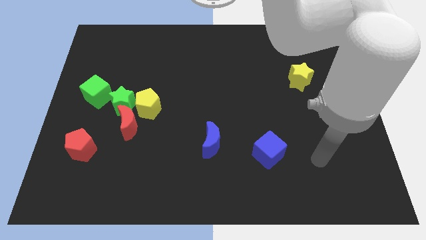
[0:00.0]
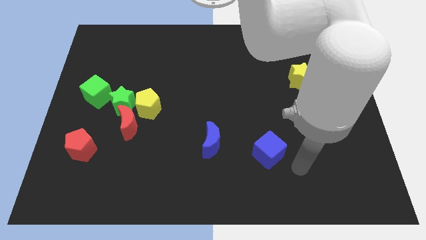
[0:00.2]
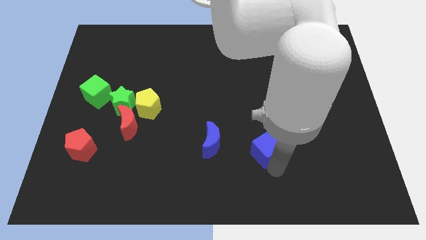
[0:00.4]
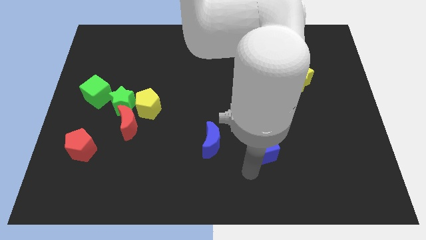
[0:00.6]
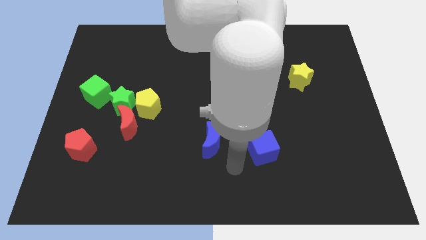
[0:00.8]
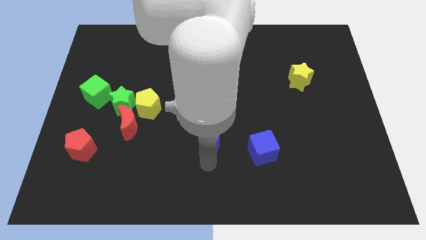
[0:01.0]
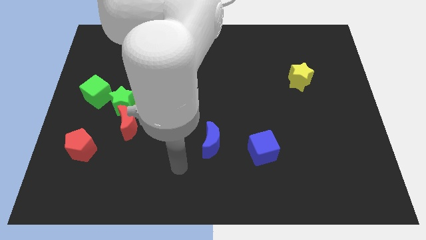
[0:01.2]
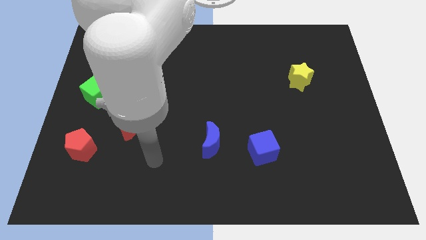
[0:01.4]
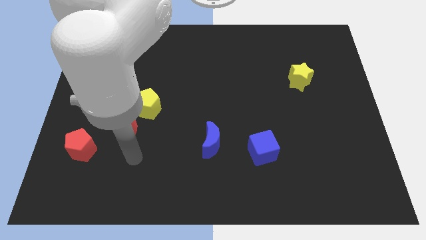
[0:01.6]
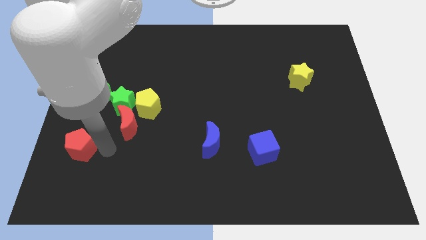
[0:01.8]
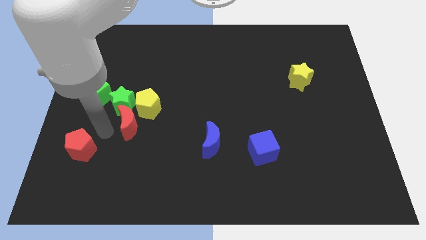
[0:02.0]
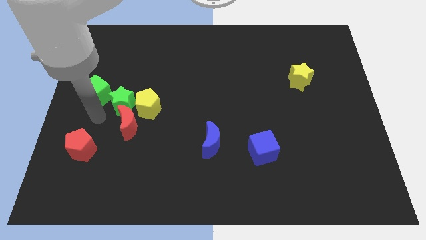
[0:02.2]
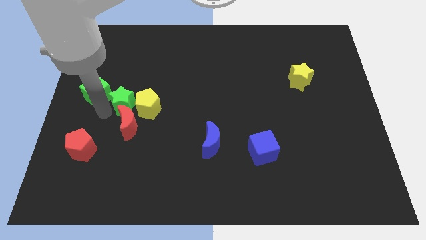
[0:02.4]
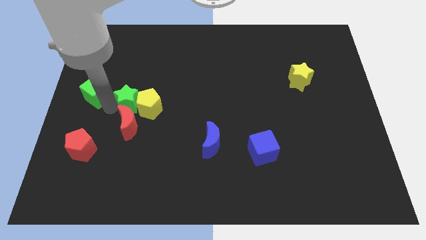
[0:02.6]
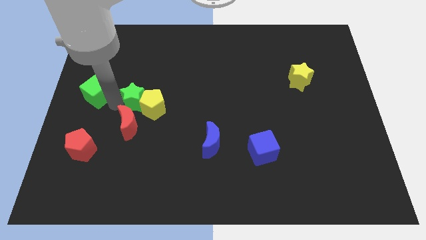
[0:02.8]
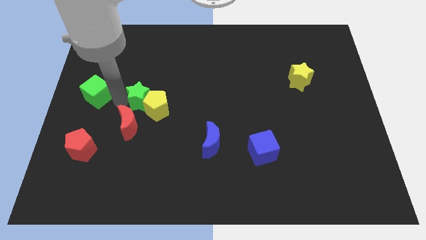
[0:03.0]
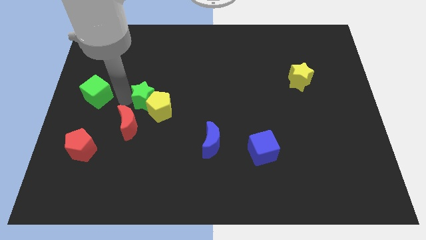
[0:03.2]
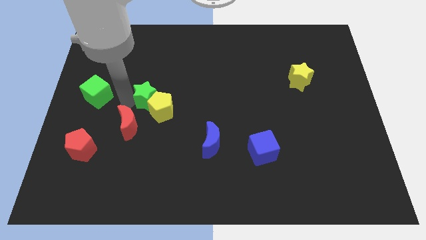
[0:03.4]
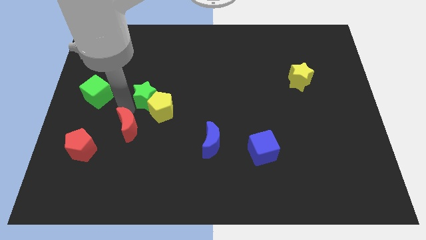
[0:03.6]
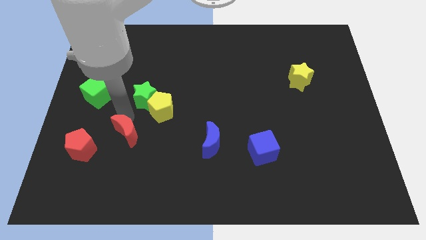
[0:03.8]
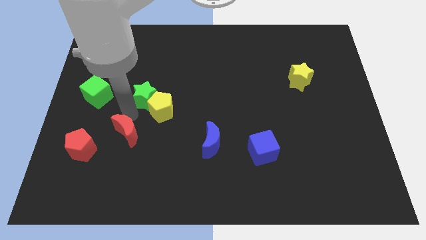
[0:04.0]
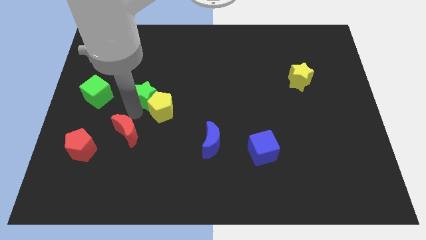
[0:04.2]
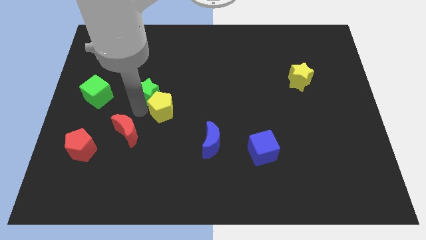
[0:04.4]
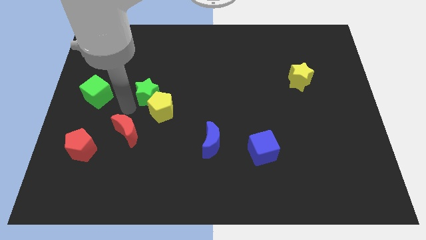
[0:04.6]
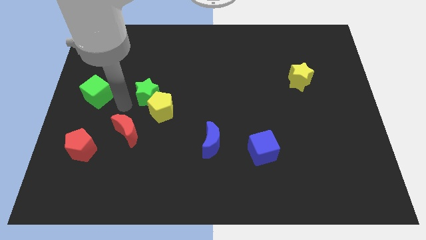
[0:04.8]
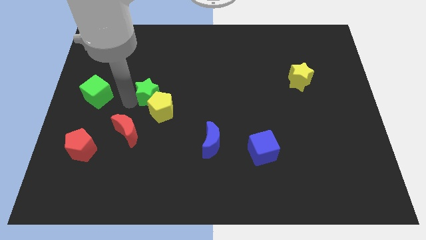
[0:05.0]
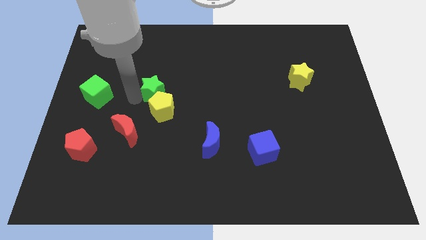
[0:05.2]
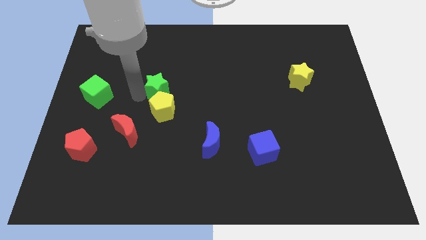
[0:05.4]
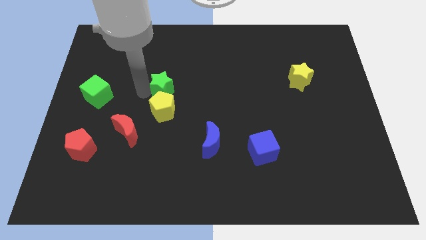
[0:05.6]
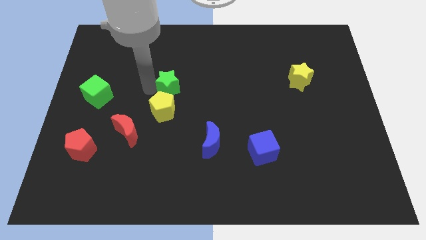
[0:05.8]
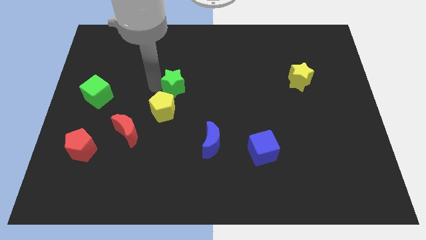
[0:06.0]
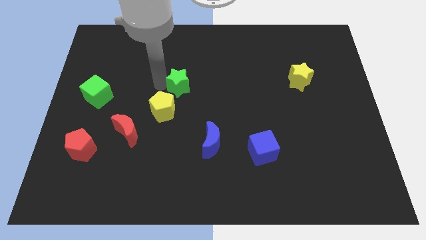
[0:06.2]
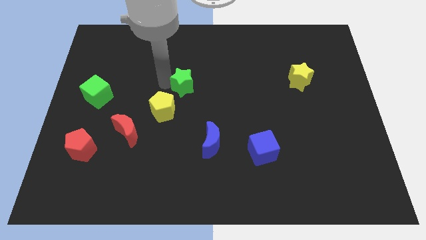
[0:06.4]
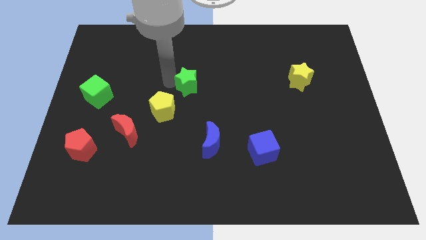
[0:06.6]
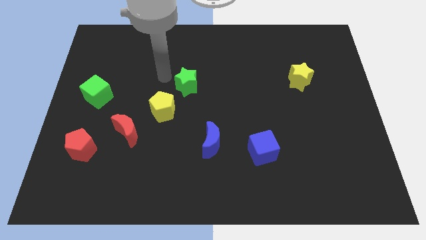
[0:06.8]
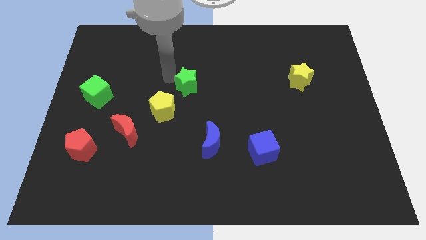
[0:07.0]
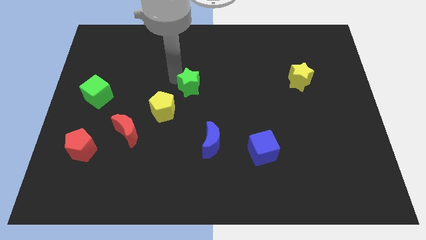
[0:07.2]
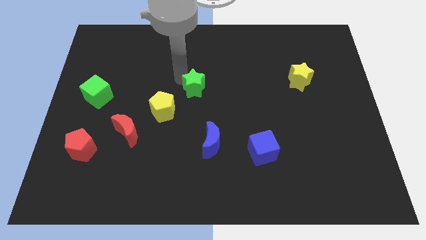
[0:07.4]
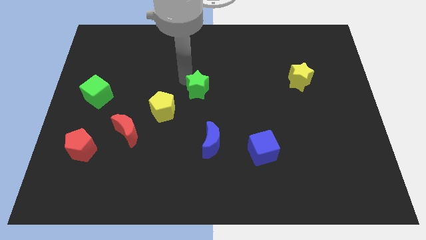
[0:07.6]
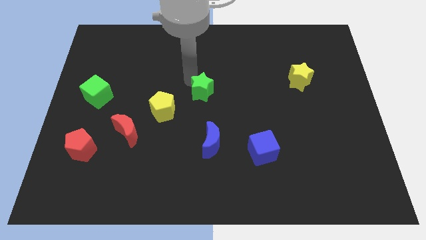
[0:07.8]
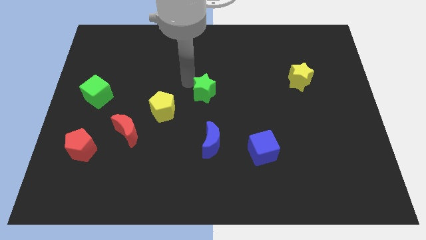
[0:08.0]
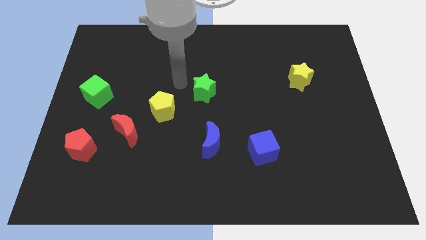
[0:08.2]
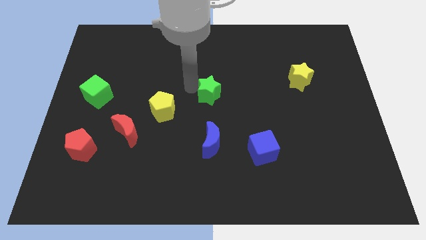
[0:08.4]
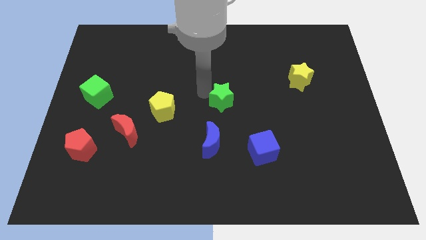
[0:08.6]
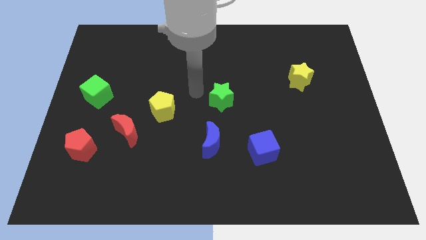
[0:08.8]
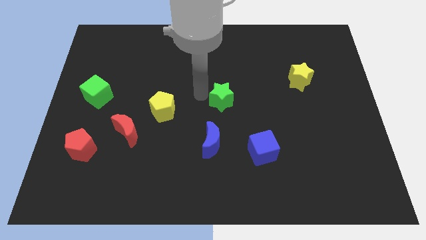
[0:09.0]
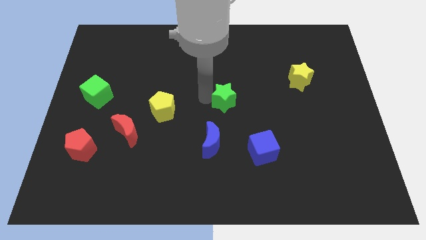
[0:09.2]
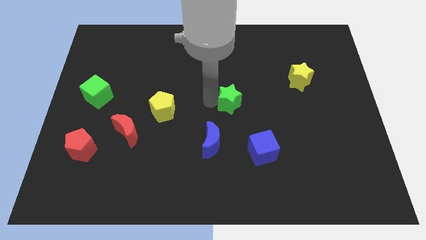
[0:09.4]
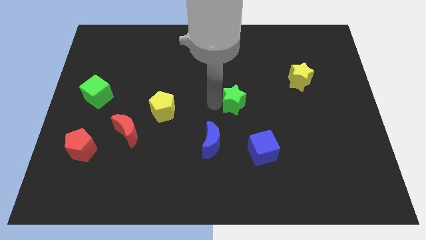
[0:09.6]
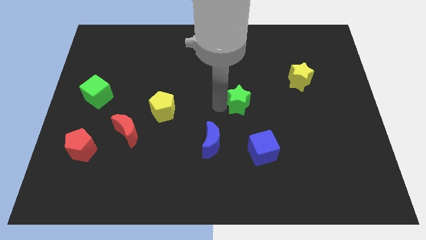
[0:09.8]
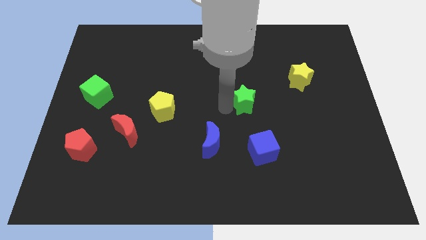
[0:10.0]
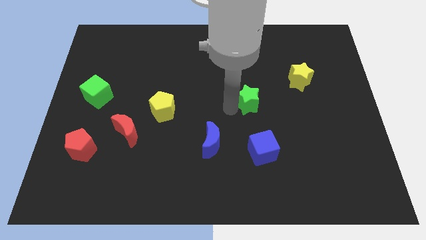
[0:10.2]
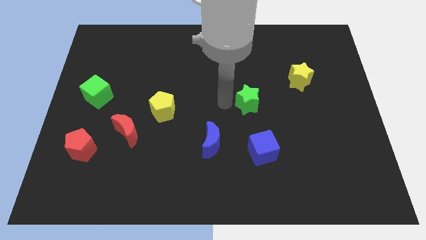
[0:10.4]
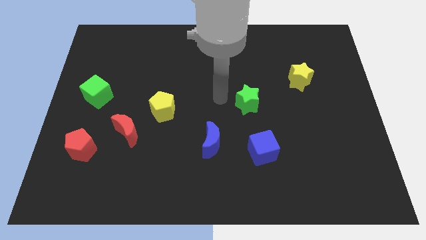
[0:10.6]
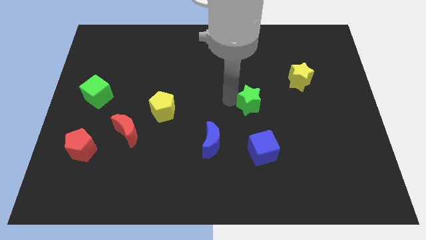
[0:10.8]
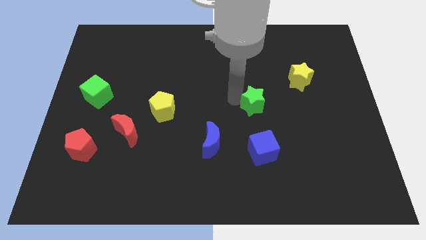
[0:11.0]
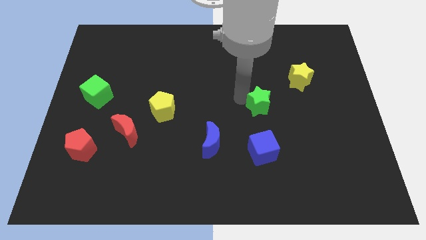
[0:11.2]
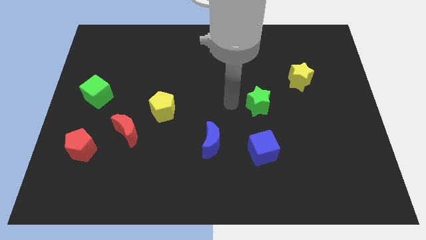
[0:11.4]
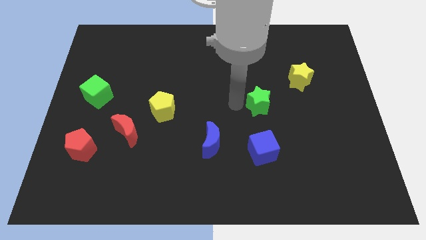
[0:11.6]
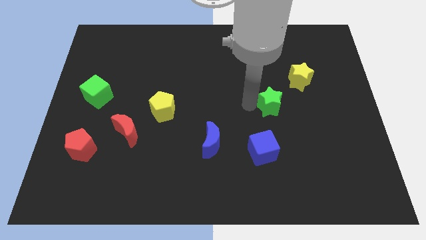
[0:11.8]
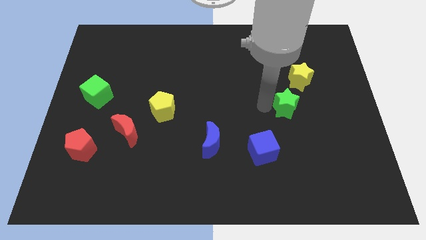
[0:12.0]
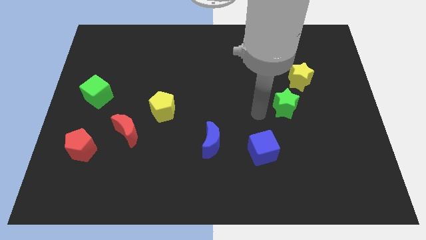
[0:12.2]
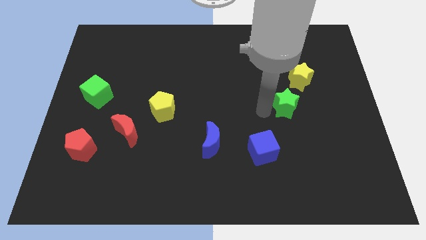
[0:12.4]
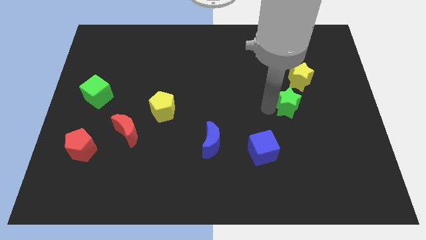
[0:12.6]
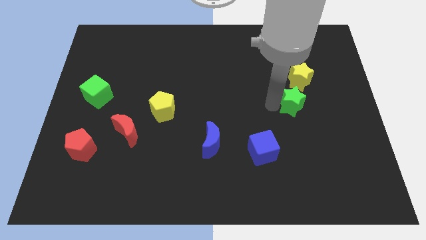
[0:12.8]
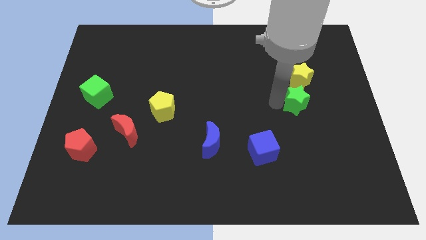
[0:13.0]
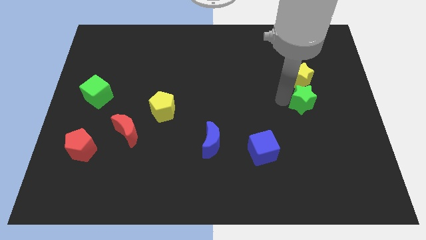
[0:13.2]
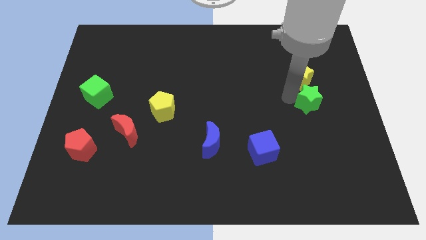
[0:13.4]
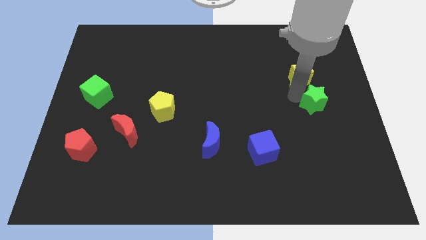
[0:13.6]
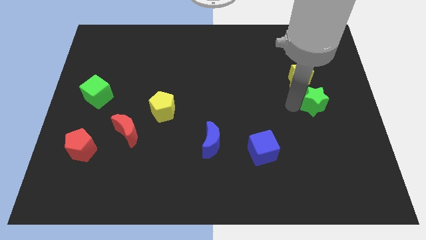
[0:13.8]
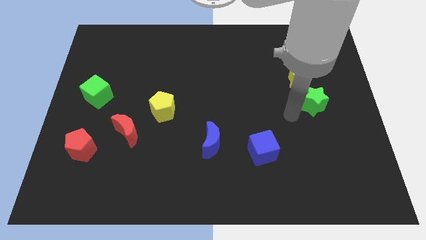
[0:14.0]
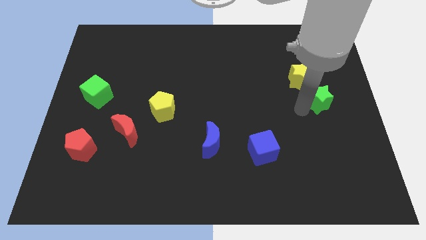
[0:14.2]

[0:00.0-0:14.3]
put the green star to the right side
